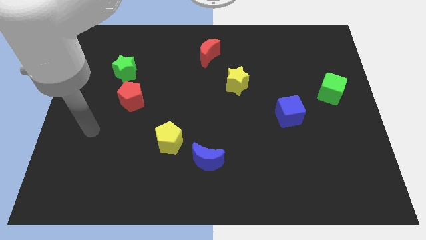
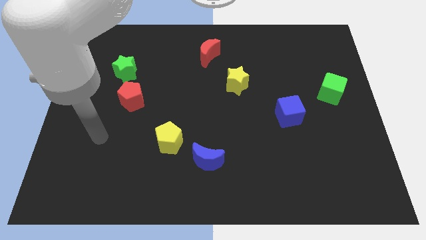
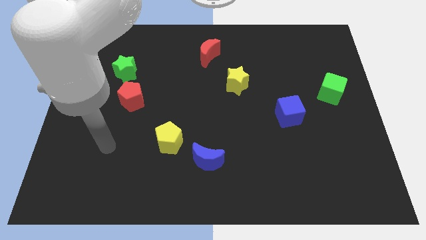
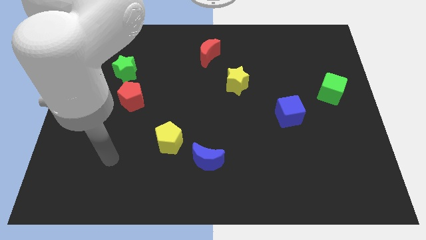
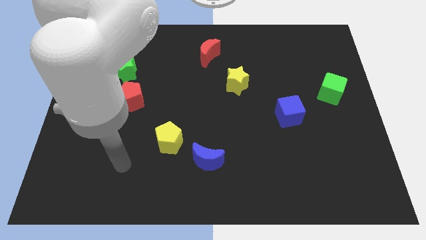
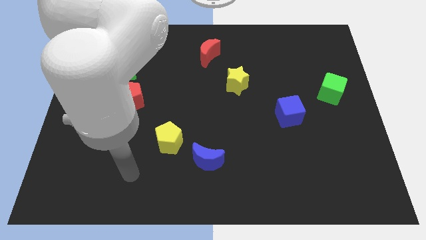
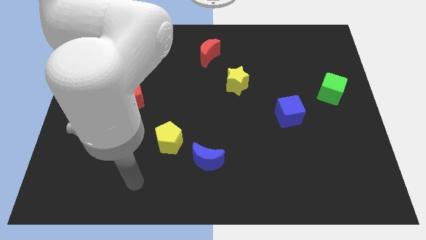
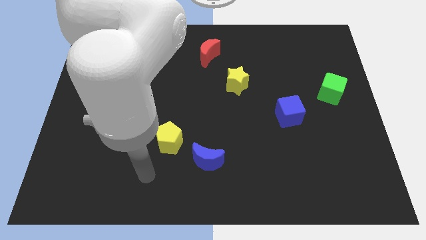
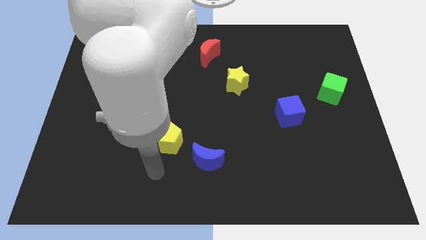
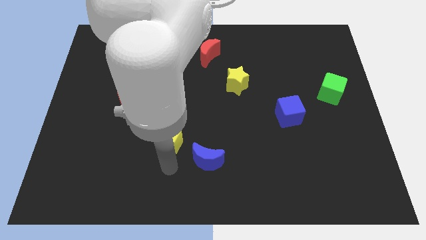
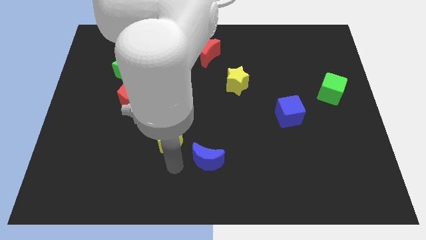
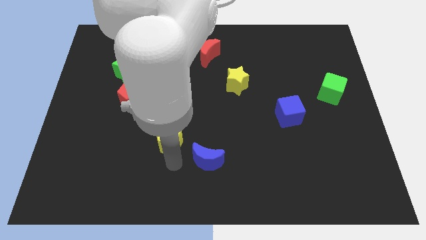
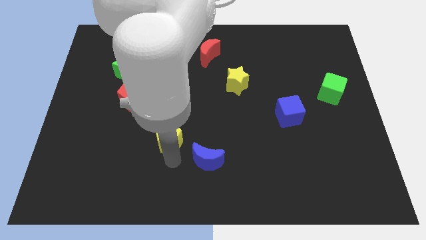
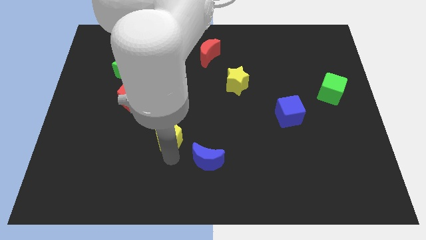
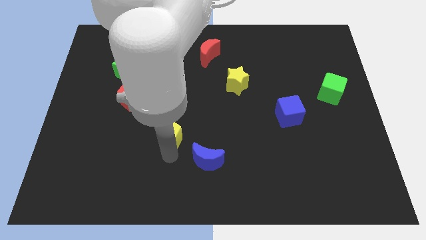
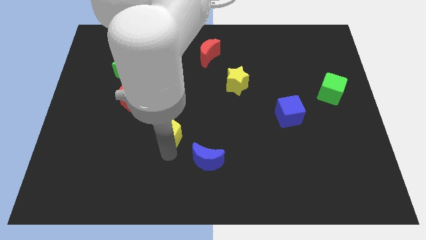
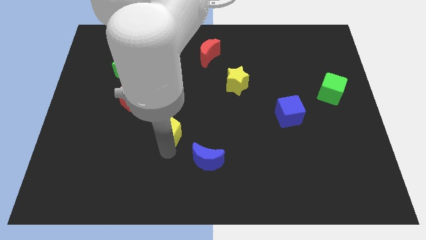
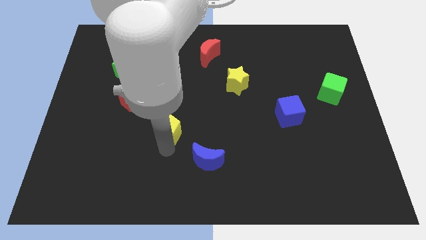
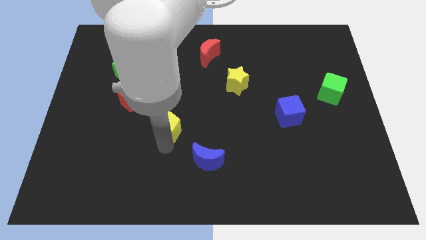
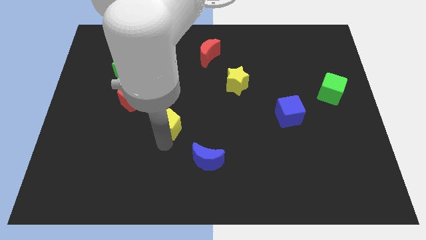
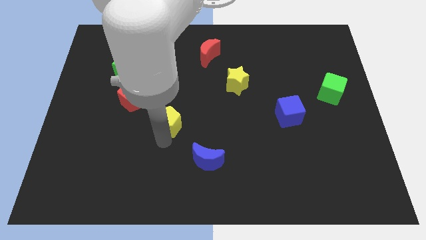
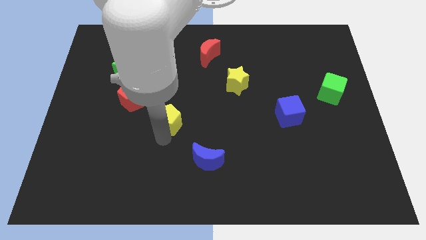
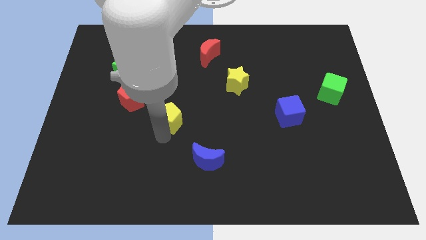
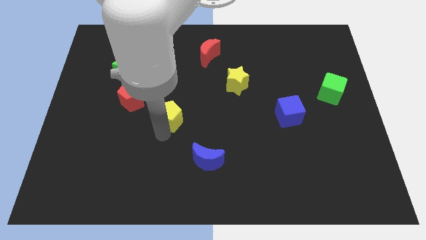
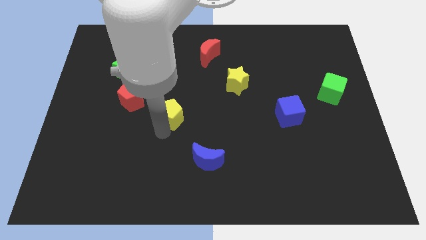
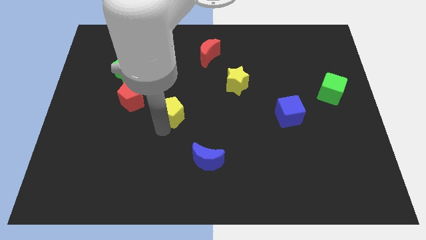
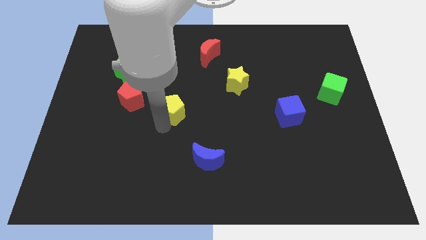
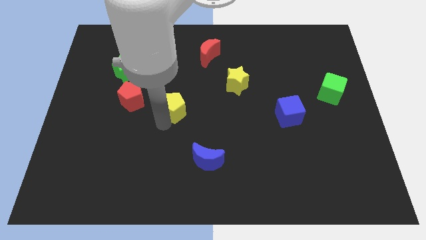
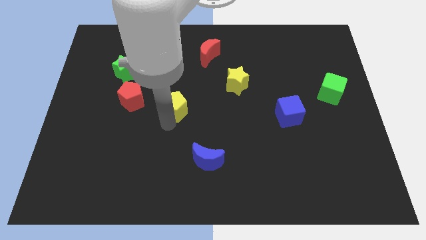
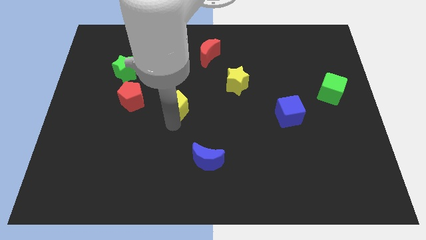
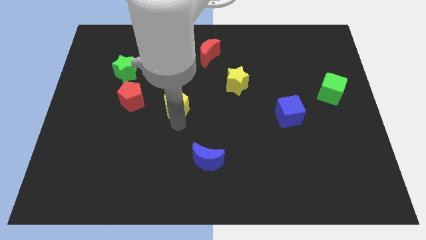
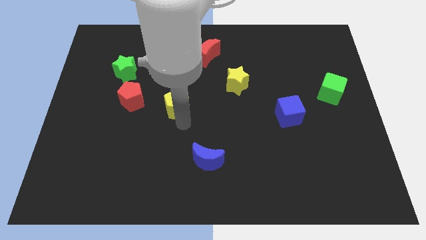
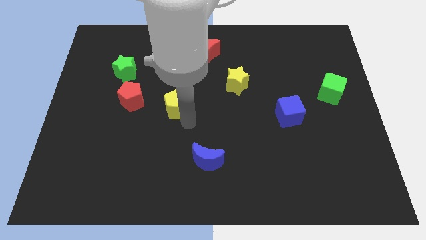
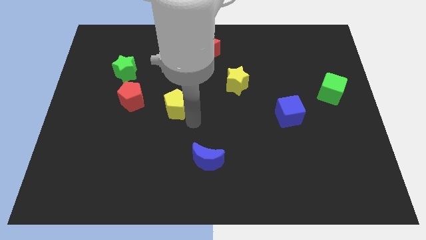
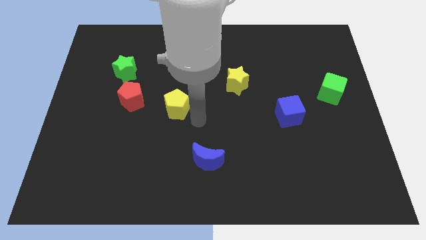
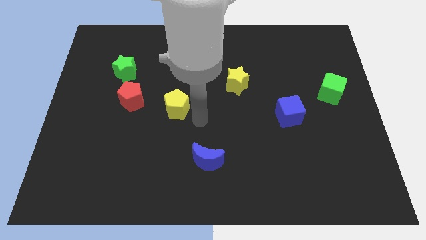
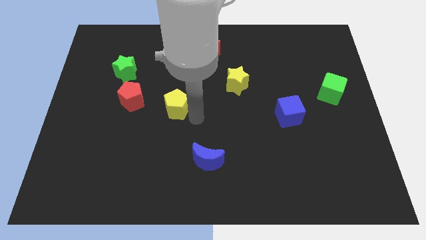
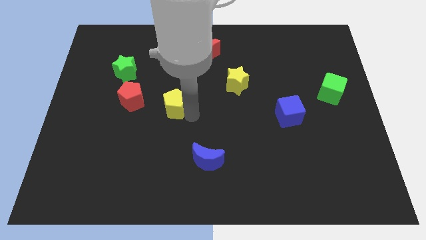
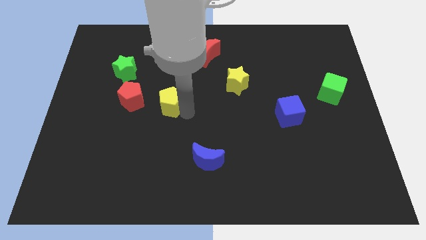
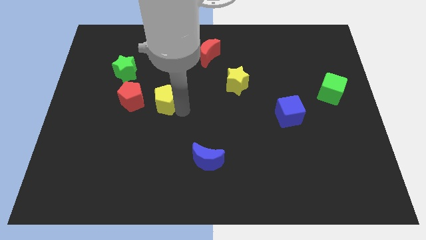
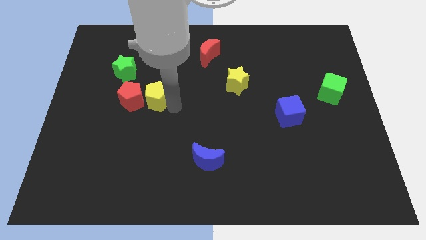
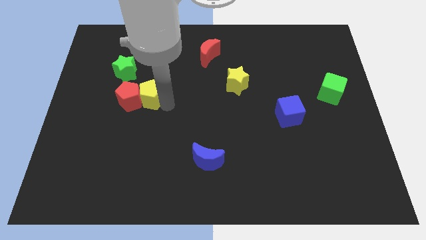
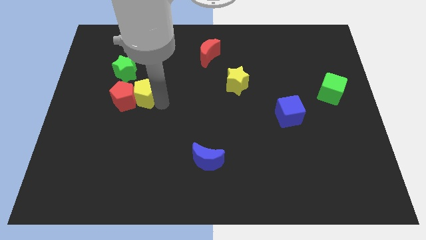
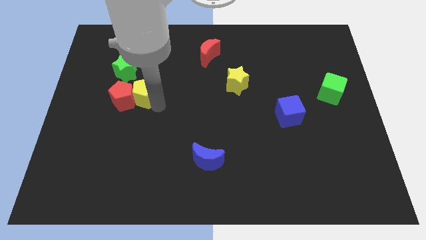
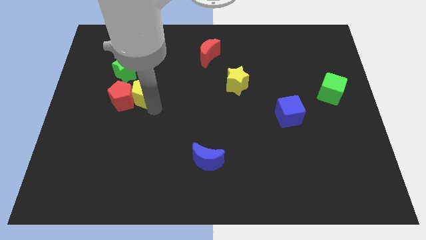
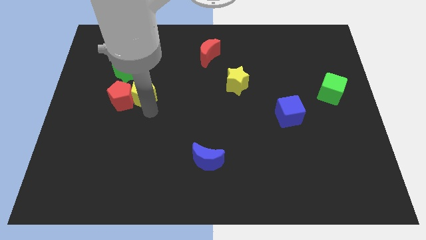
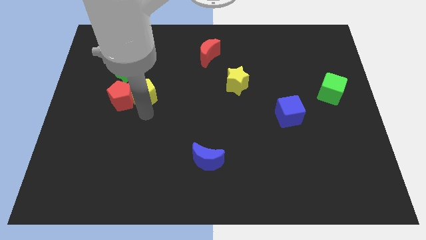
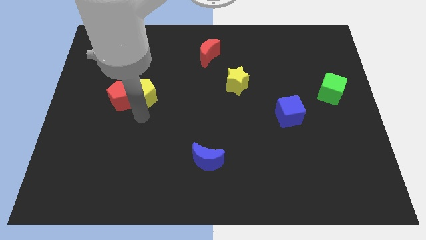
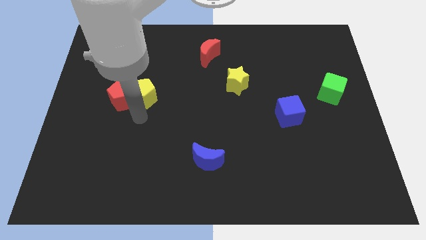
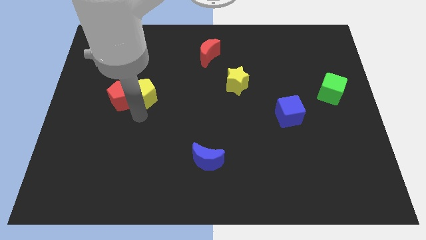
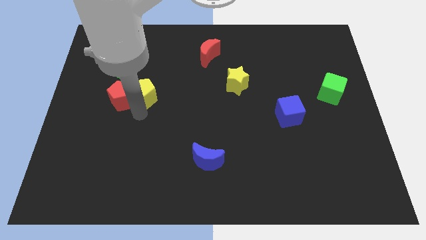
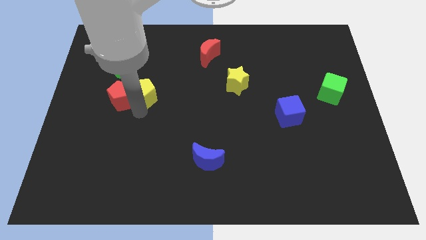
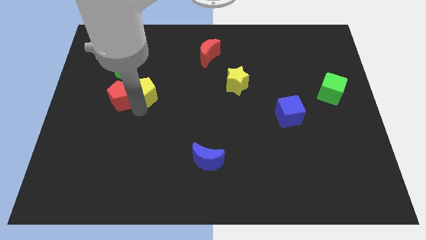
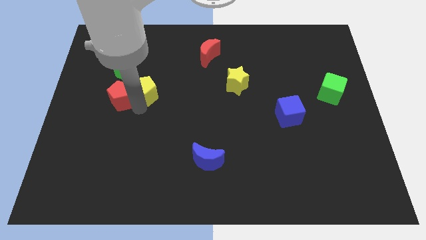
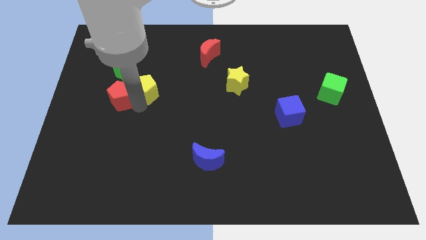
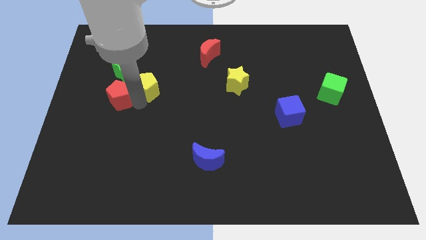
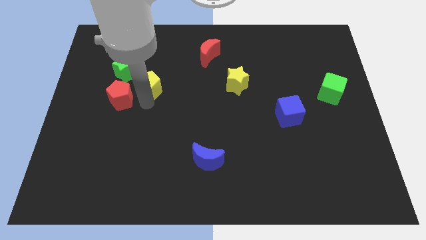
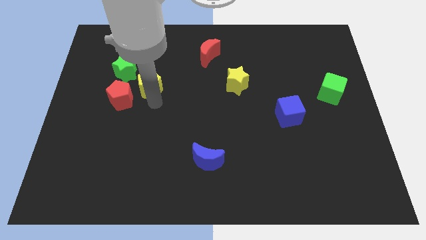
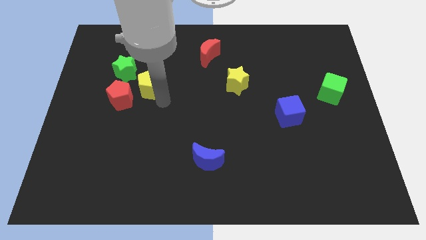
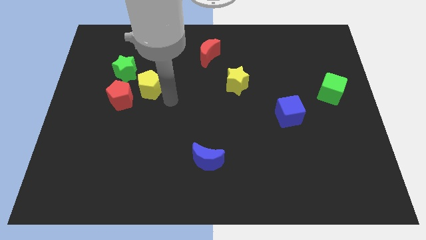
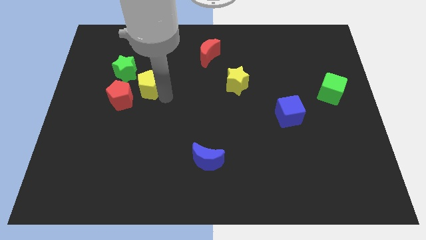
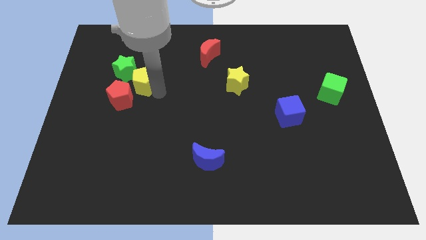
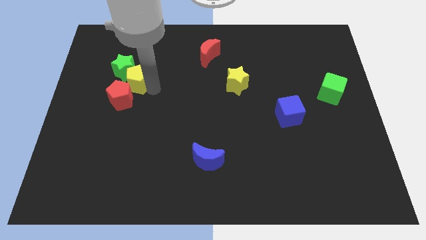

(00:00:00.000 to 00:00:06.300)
put the yellow pentagon to the green star

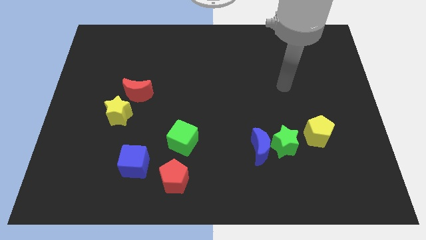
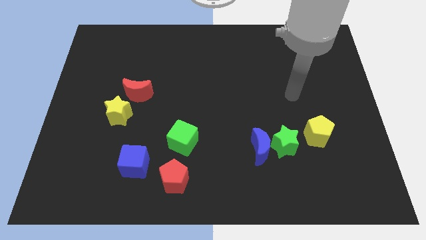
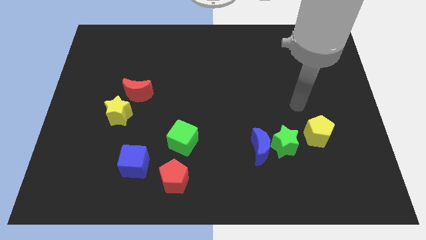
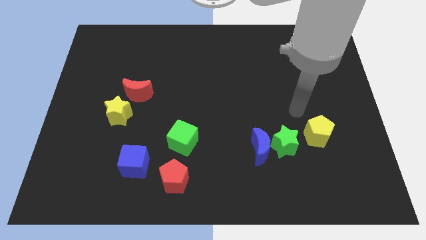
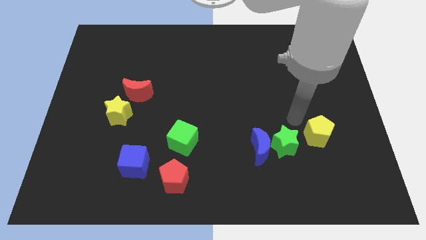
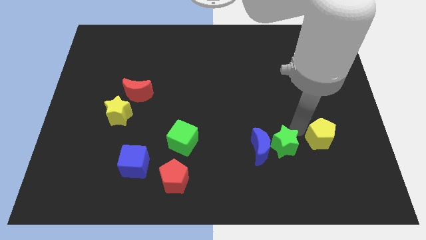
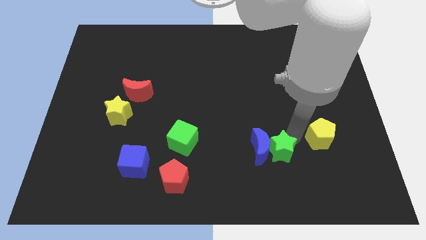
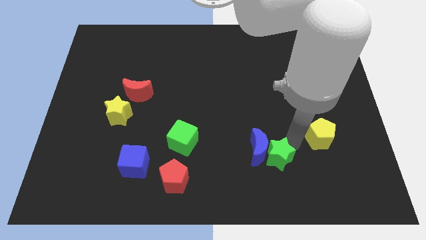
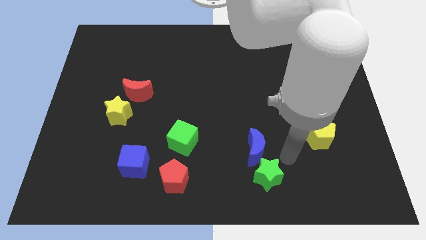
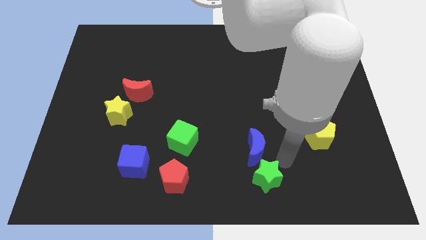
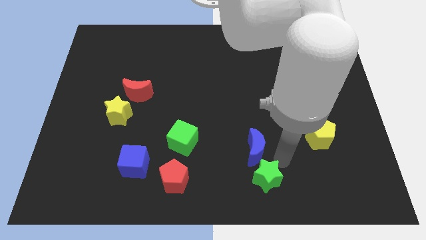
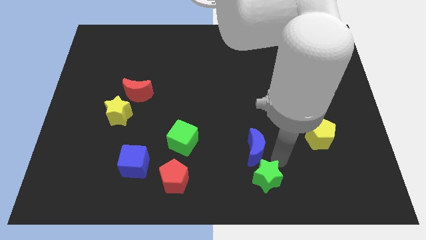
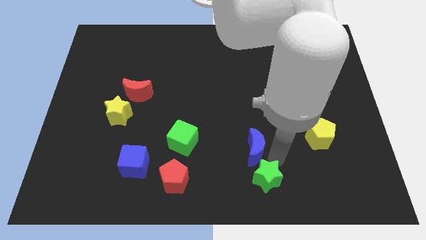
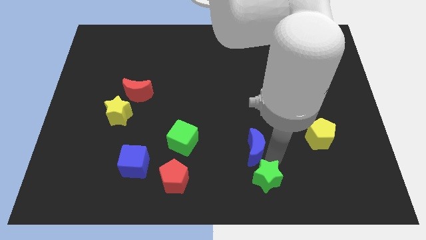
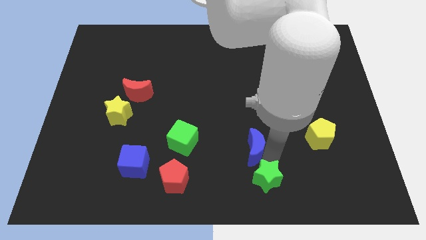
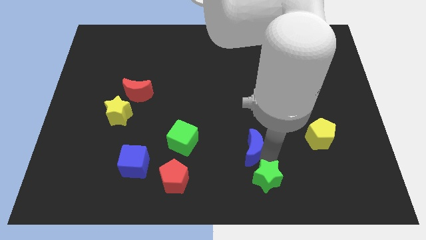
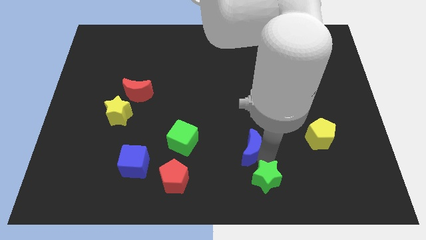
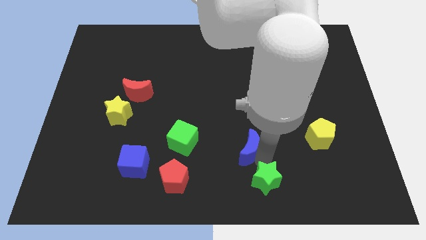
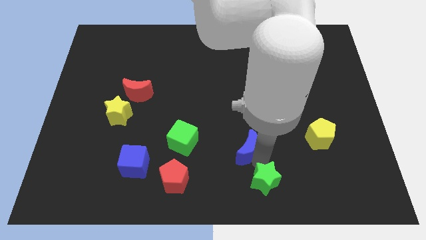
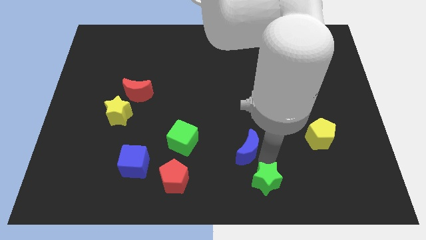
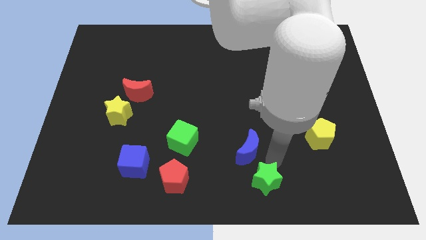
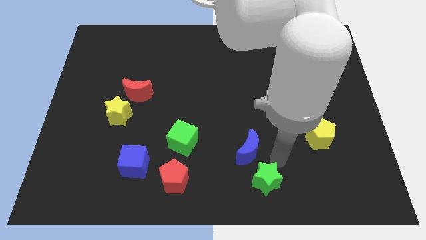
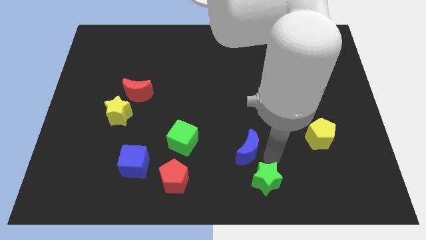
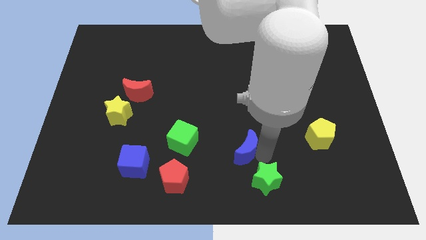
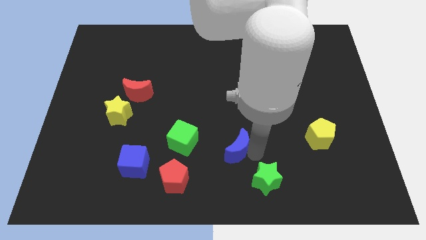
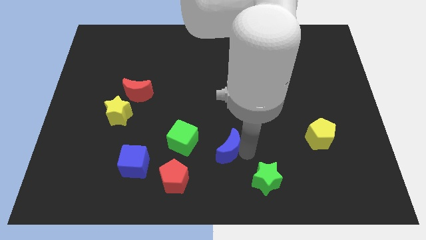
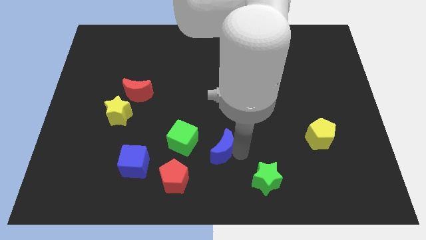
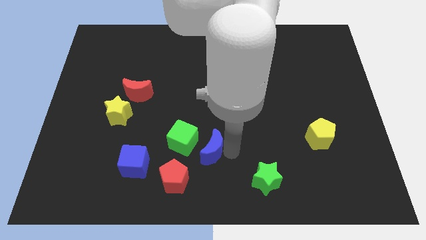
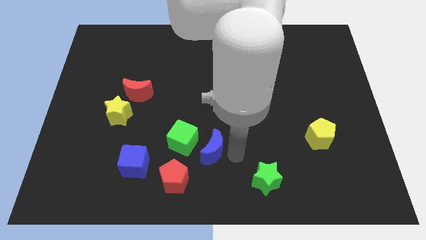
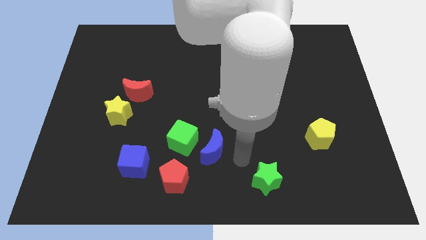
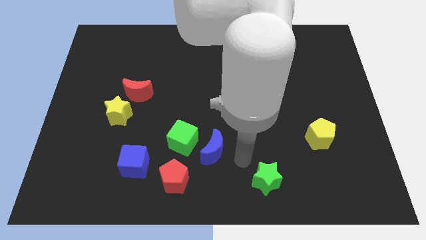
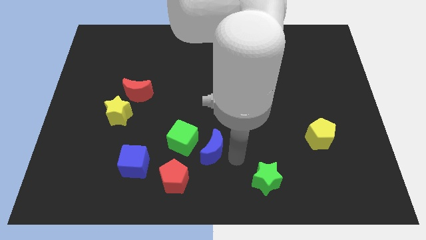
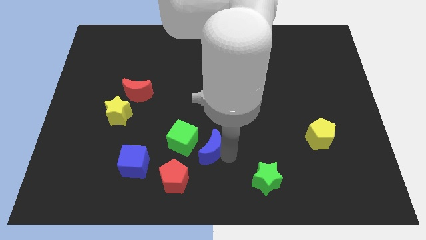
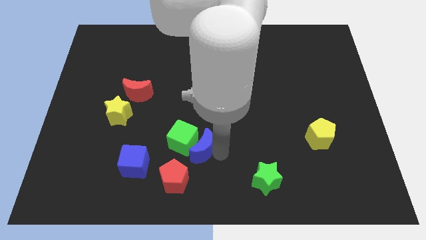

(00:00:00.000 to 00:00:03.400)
push the blue moon next to the green cube
